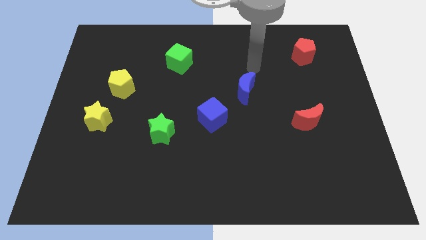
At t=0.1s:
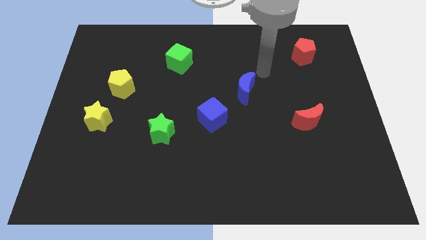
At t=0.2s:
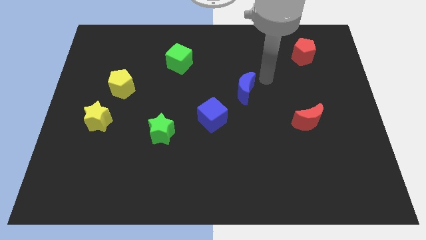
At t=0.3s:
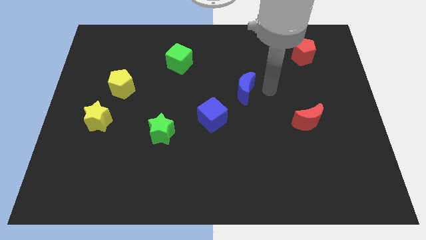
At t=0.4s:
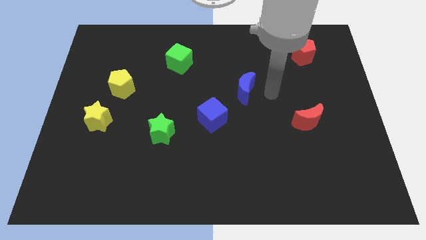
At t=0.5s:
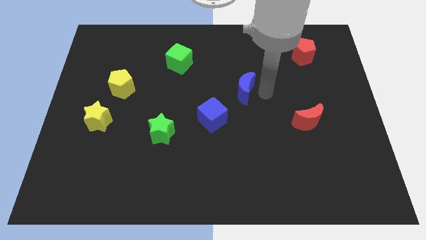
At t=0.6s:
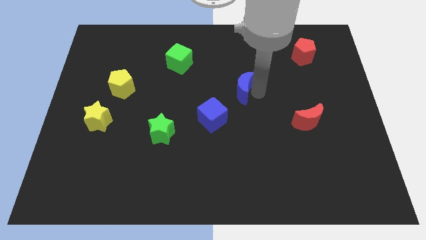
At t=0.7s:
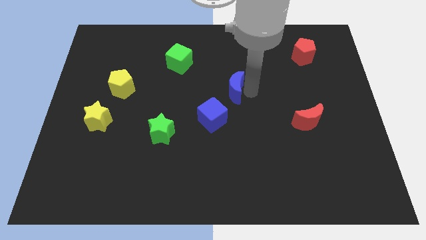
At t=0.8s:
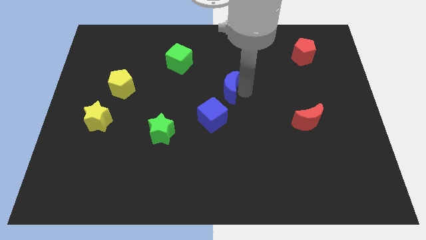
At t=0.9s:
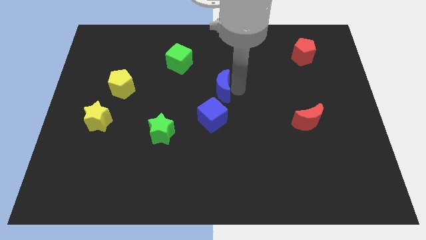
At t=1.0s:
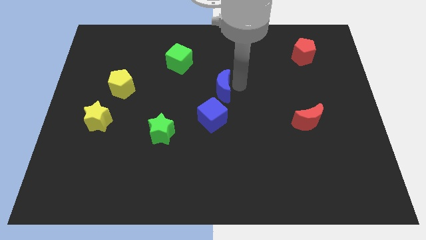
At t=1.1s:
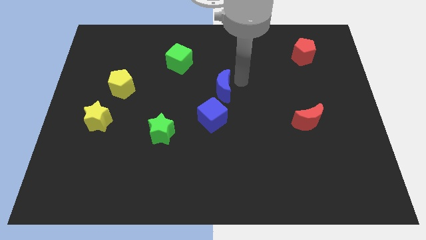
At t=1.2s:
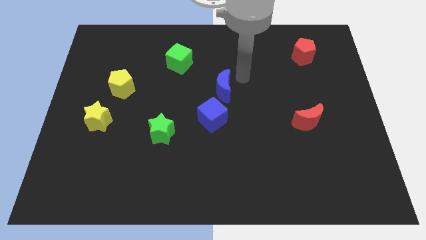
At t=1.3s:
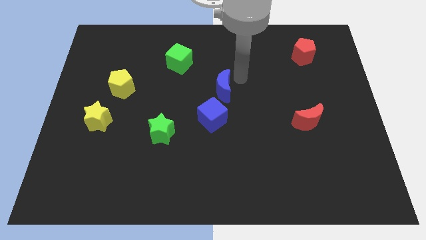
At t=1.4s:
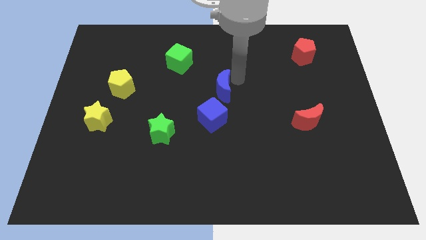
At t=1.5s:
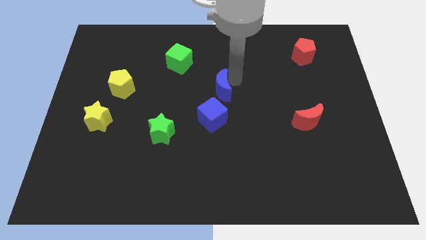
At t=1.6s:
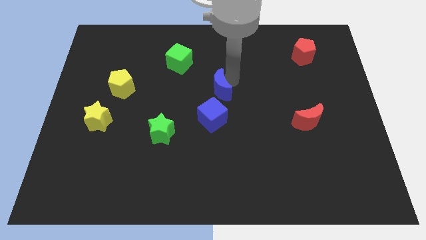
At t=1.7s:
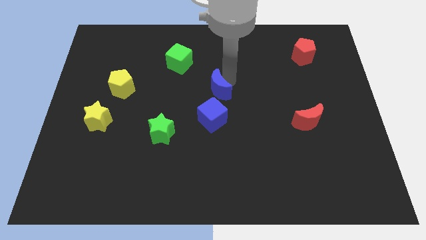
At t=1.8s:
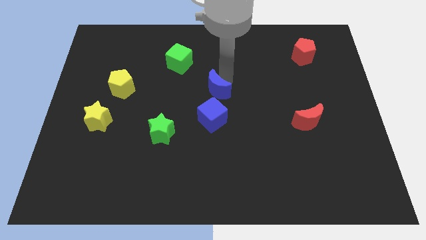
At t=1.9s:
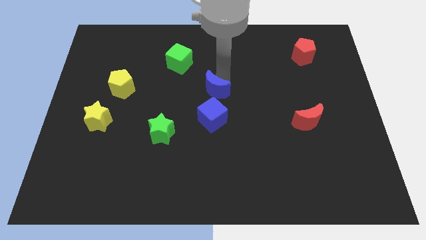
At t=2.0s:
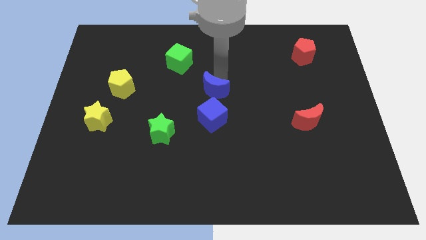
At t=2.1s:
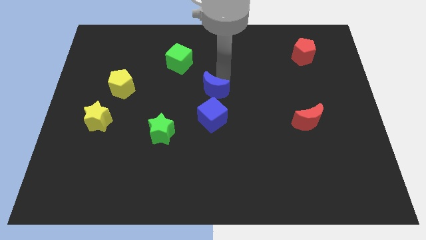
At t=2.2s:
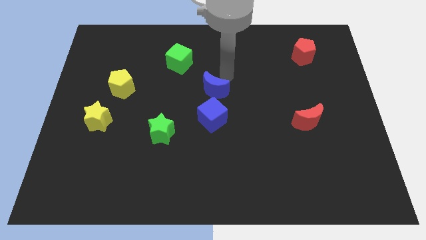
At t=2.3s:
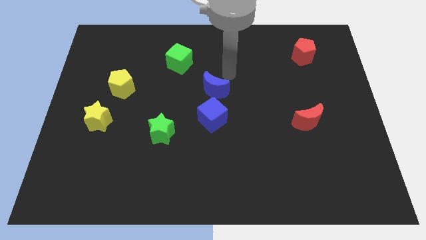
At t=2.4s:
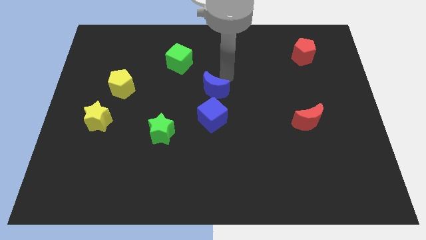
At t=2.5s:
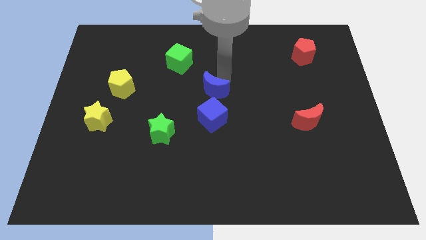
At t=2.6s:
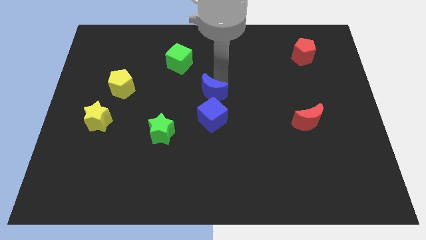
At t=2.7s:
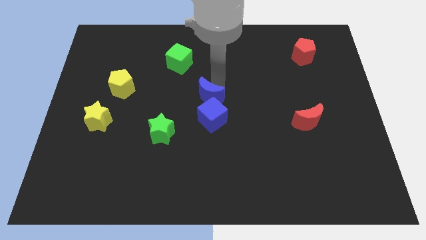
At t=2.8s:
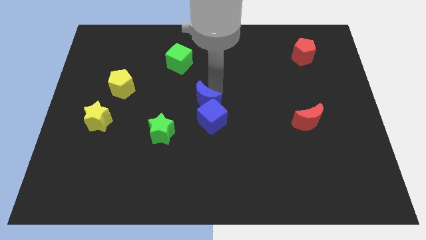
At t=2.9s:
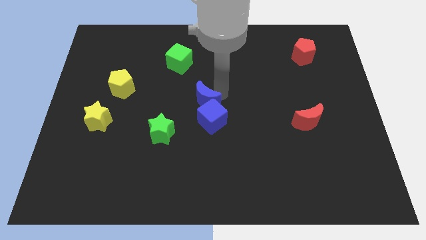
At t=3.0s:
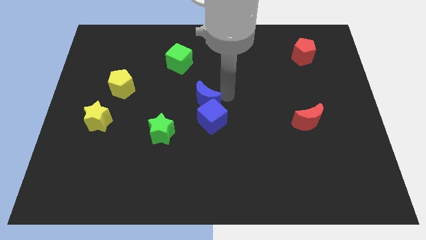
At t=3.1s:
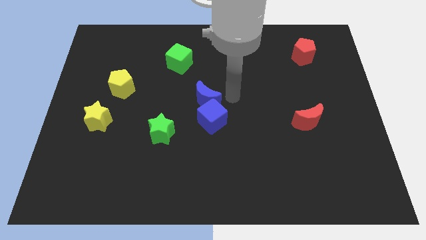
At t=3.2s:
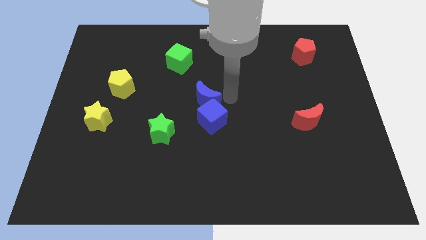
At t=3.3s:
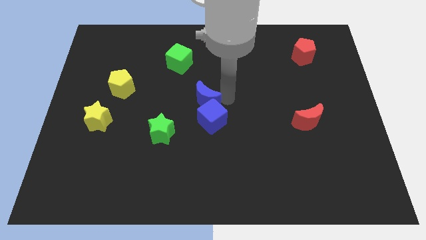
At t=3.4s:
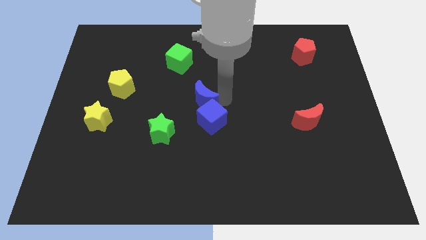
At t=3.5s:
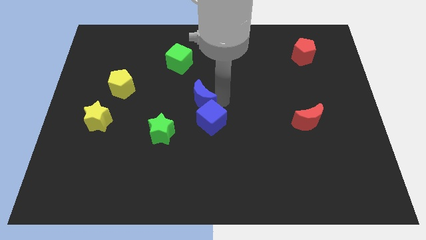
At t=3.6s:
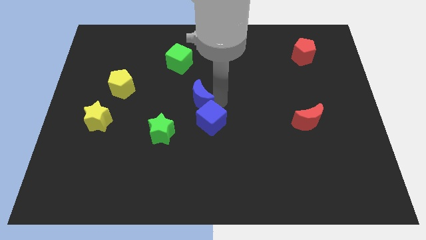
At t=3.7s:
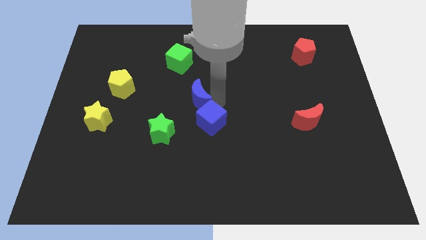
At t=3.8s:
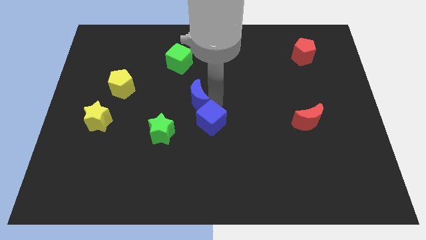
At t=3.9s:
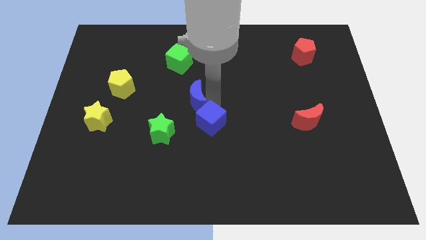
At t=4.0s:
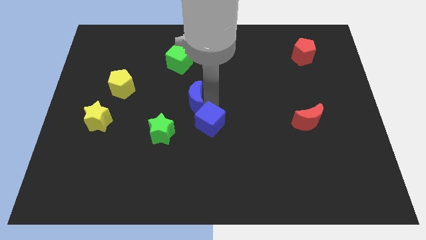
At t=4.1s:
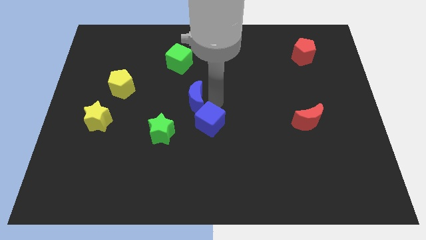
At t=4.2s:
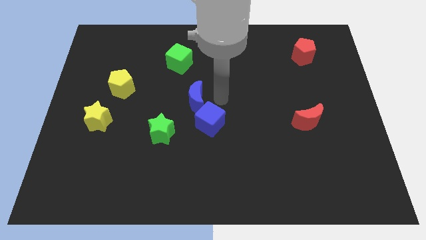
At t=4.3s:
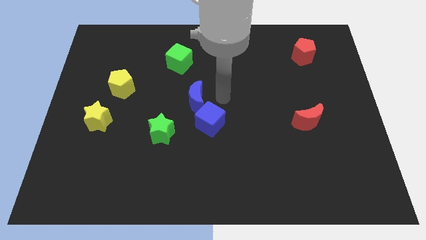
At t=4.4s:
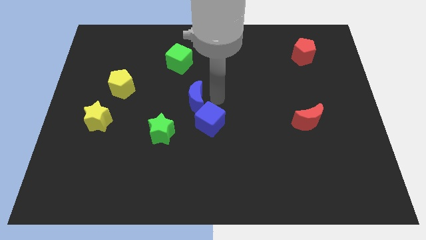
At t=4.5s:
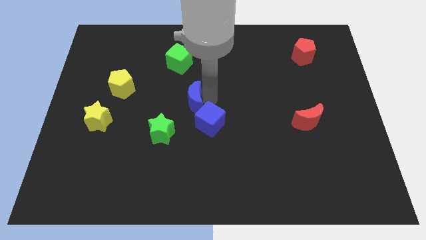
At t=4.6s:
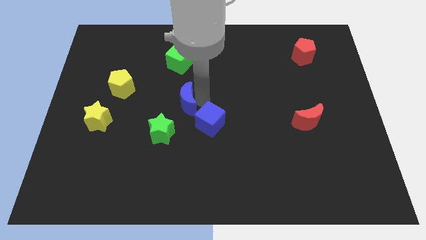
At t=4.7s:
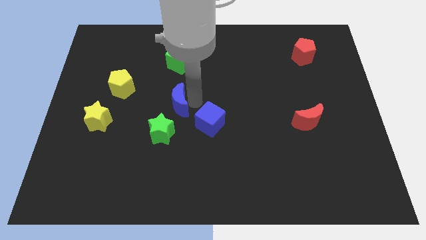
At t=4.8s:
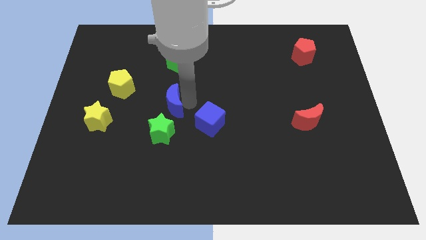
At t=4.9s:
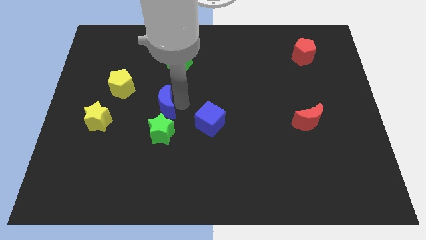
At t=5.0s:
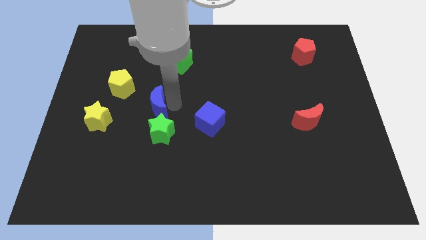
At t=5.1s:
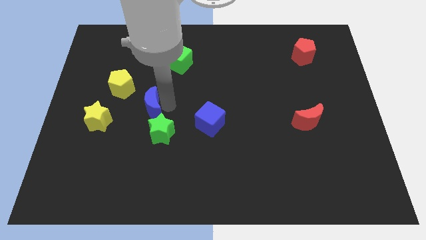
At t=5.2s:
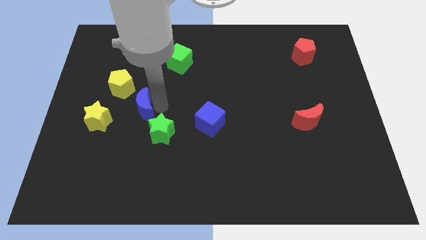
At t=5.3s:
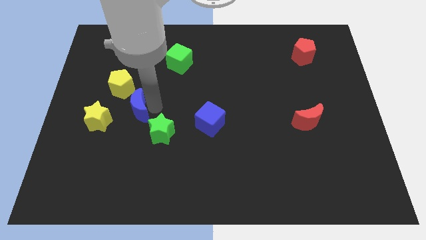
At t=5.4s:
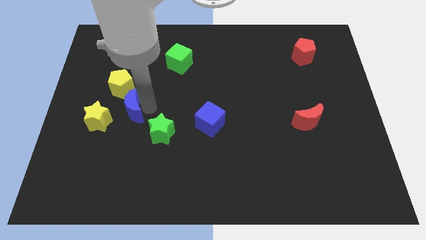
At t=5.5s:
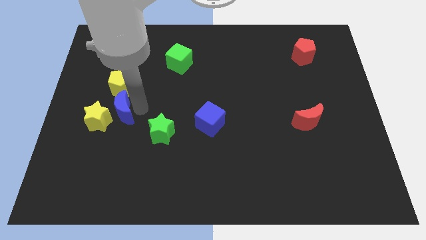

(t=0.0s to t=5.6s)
push the blue moon towards the yellow star

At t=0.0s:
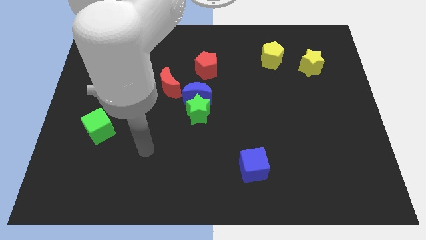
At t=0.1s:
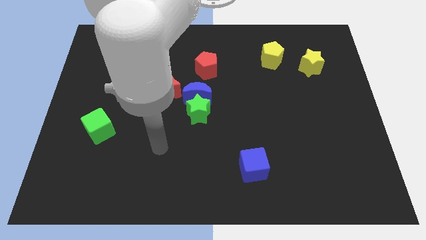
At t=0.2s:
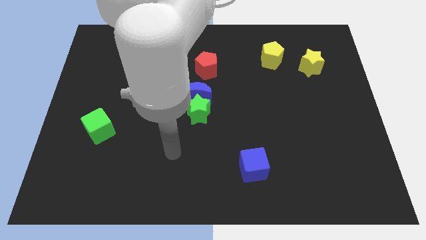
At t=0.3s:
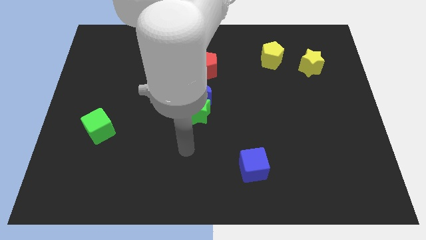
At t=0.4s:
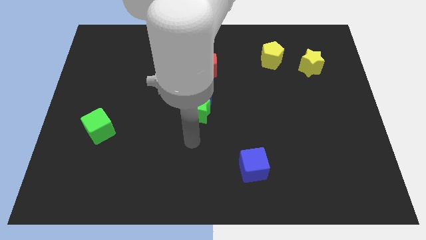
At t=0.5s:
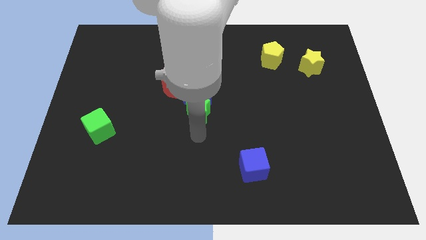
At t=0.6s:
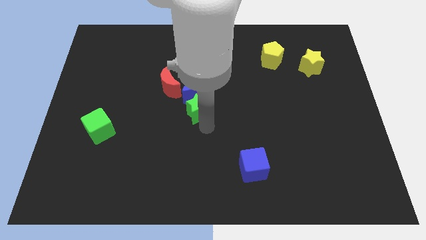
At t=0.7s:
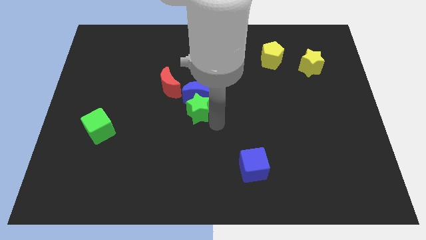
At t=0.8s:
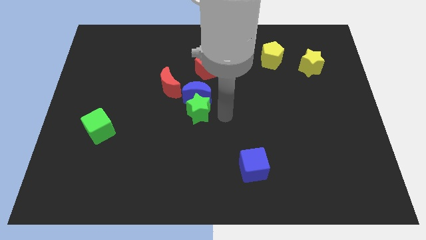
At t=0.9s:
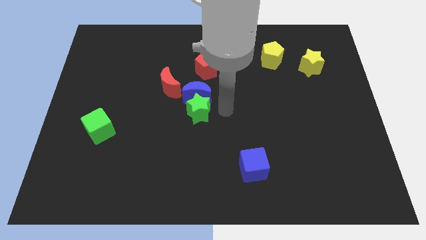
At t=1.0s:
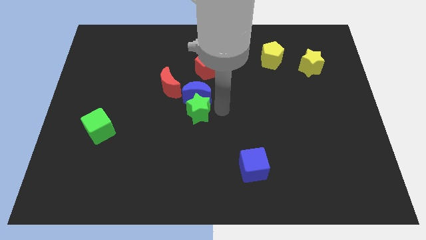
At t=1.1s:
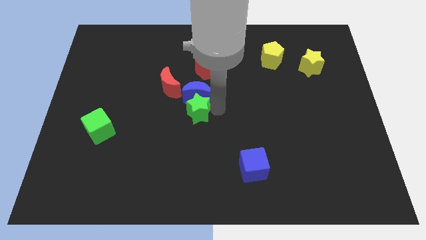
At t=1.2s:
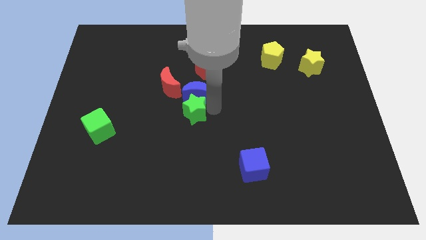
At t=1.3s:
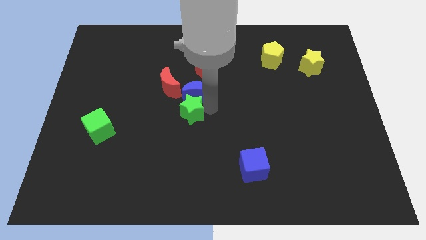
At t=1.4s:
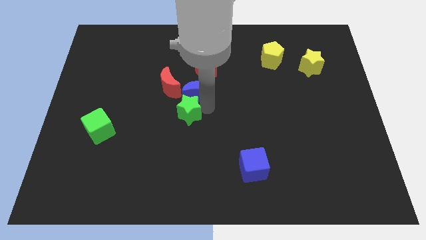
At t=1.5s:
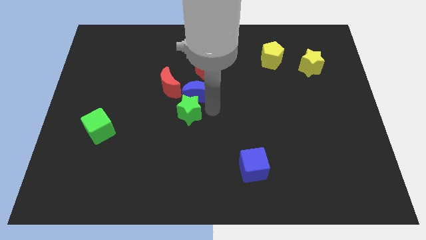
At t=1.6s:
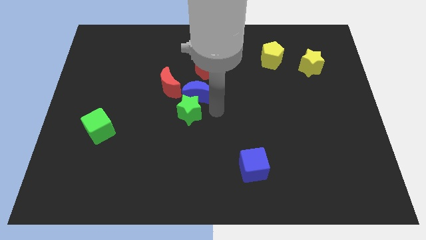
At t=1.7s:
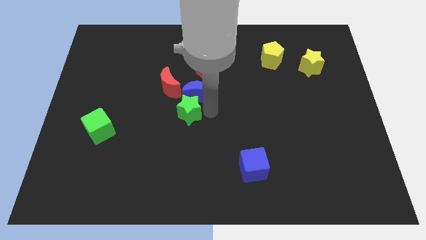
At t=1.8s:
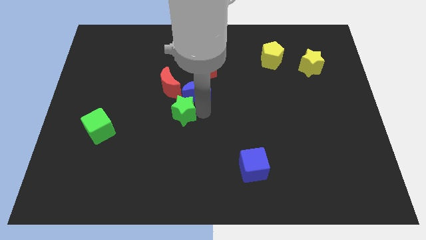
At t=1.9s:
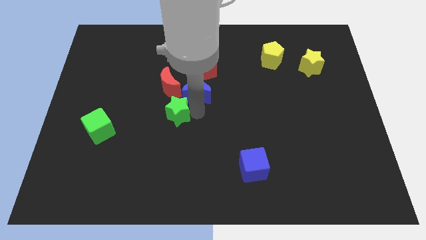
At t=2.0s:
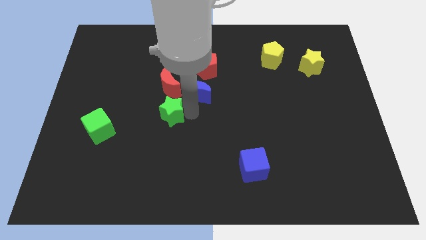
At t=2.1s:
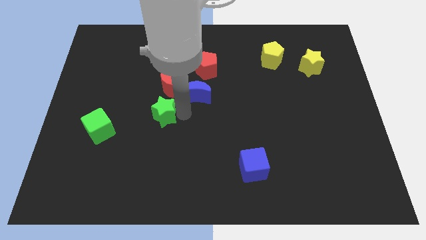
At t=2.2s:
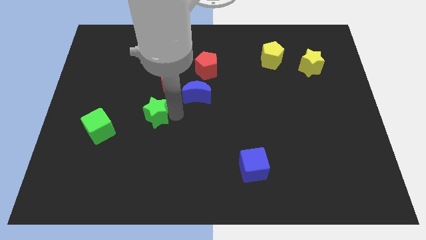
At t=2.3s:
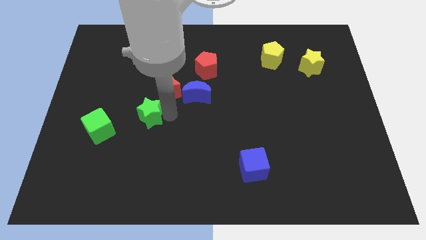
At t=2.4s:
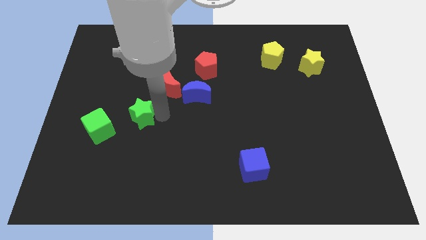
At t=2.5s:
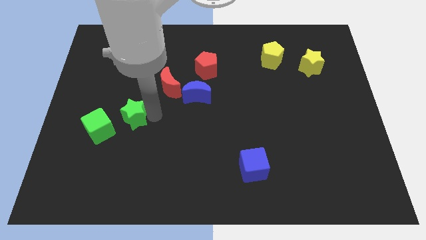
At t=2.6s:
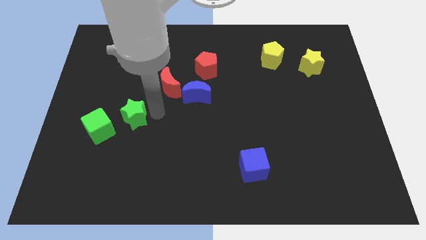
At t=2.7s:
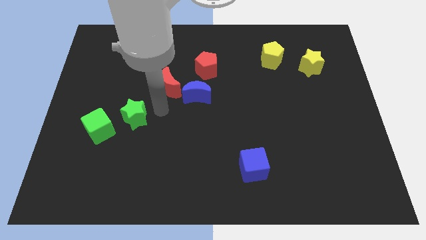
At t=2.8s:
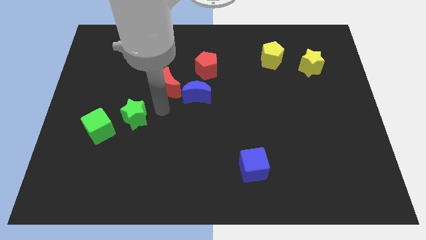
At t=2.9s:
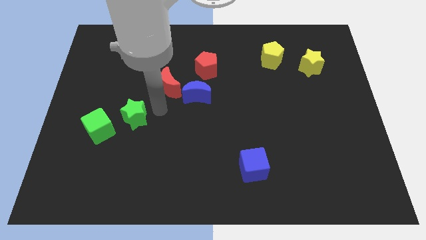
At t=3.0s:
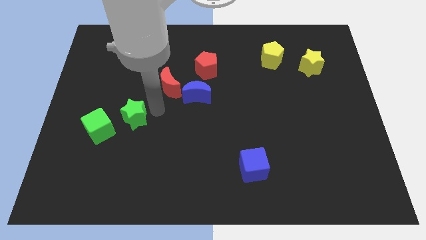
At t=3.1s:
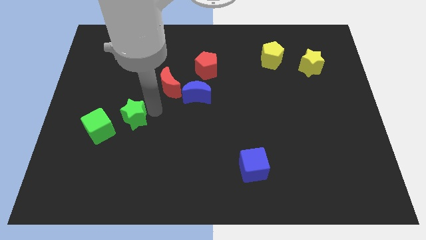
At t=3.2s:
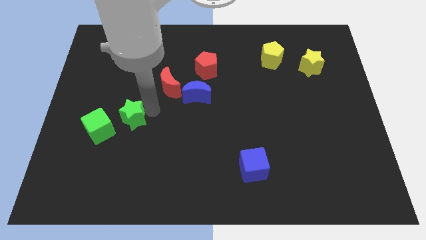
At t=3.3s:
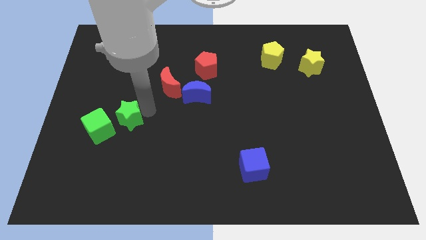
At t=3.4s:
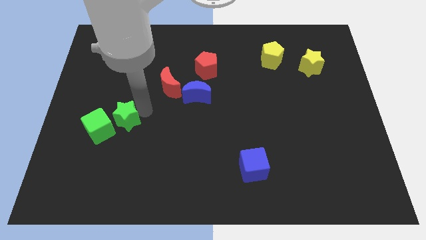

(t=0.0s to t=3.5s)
push the green star to the green cube
